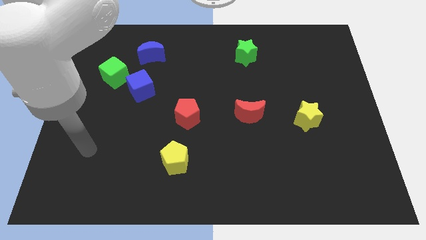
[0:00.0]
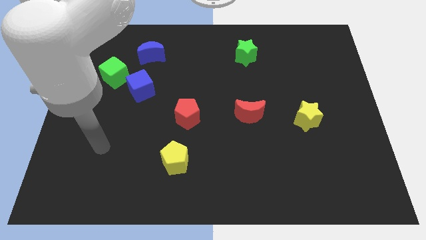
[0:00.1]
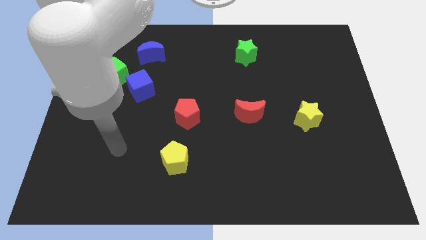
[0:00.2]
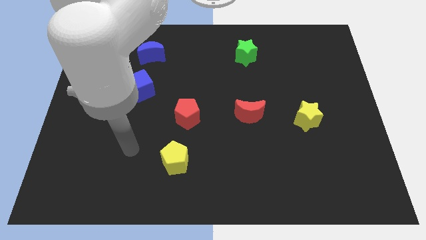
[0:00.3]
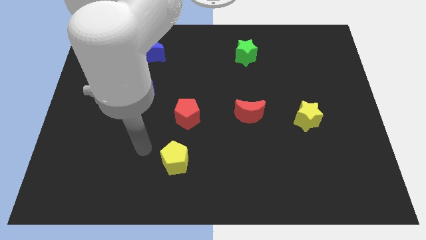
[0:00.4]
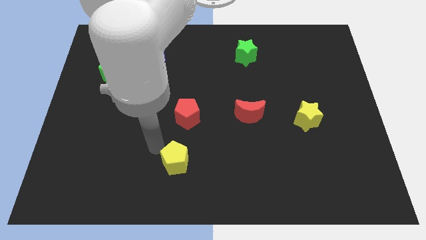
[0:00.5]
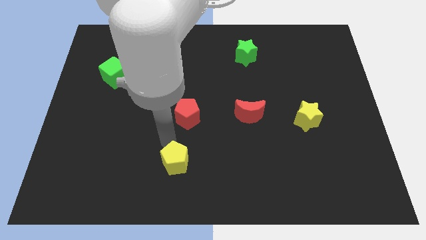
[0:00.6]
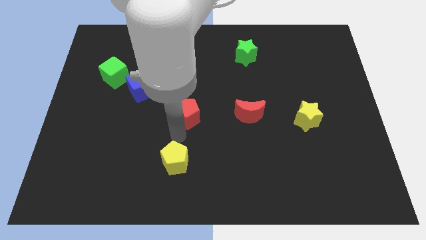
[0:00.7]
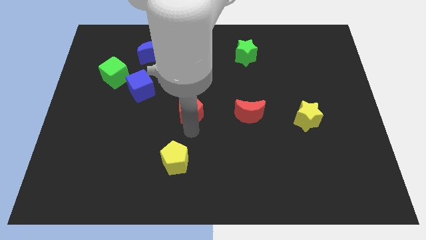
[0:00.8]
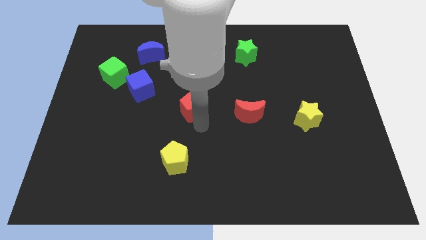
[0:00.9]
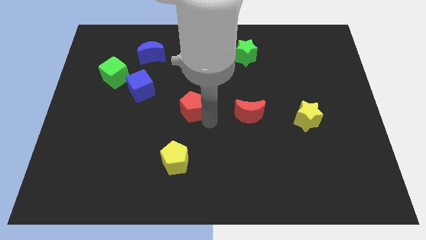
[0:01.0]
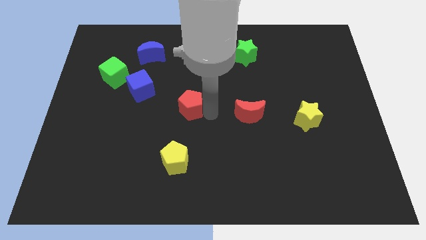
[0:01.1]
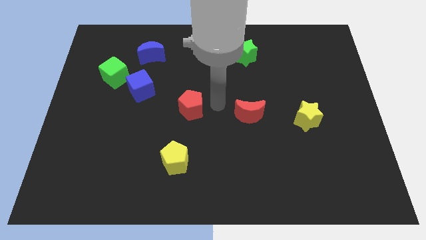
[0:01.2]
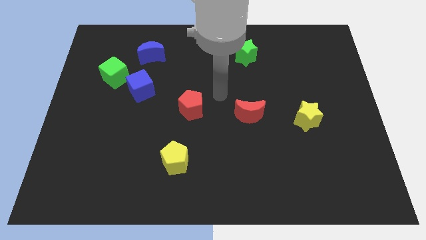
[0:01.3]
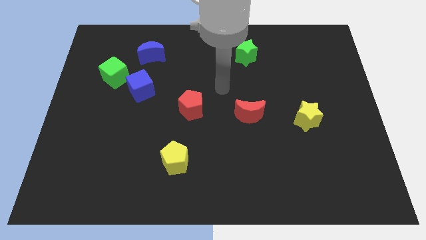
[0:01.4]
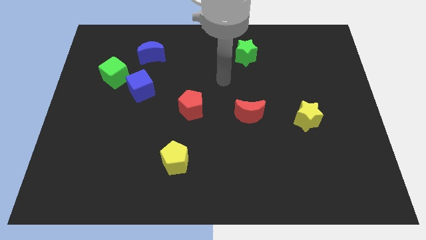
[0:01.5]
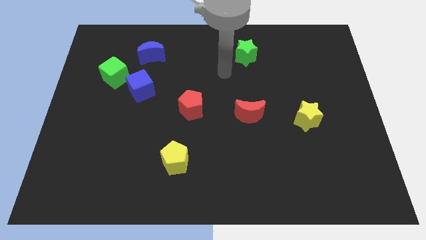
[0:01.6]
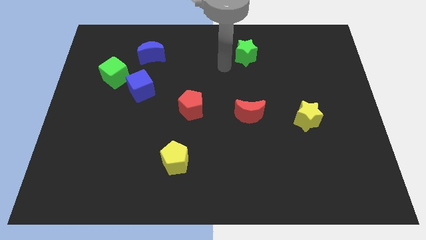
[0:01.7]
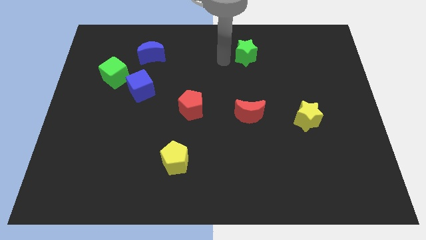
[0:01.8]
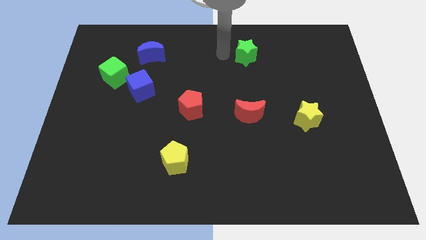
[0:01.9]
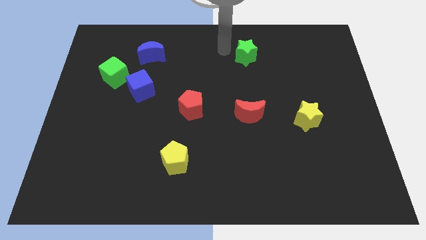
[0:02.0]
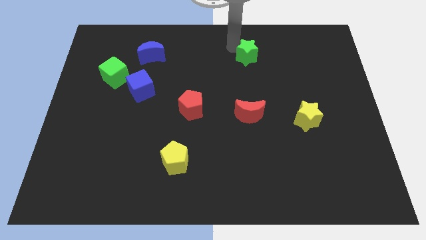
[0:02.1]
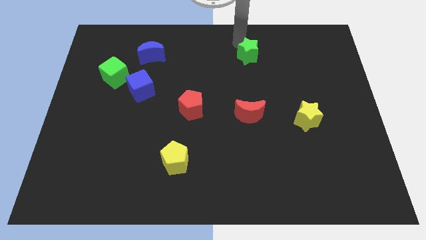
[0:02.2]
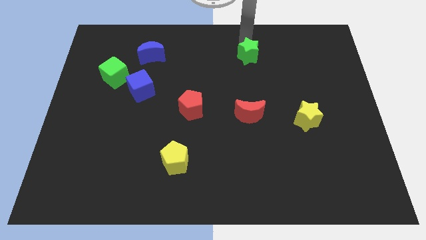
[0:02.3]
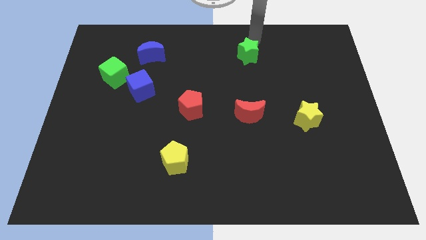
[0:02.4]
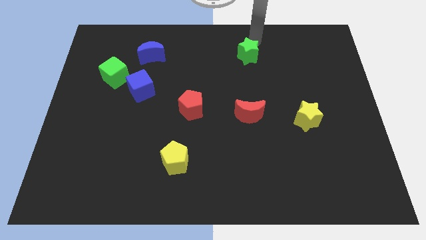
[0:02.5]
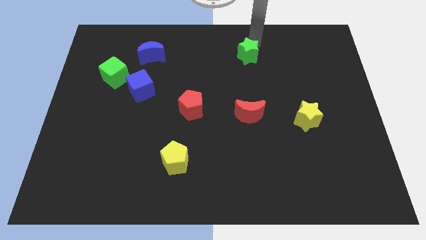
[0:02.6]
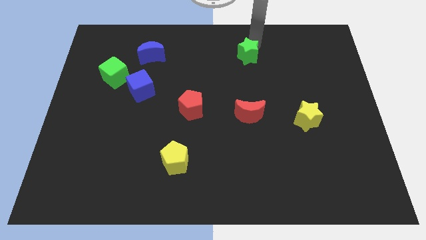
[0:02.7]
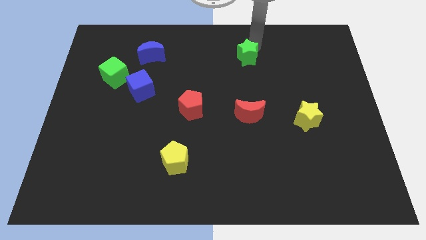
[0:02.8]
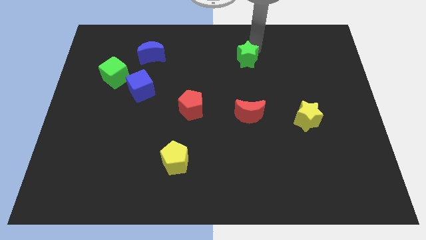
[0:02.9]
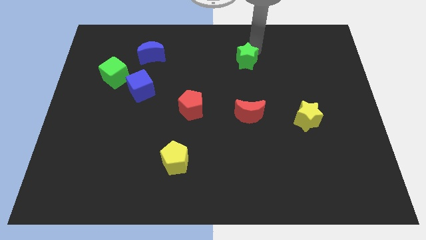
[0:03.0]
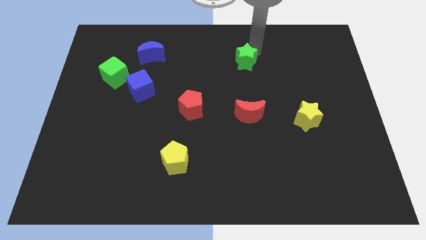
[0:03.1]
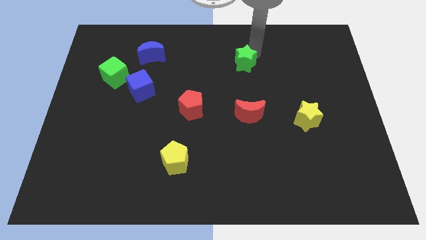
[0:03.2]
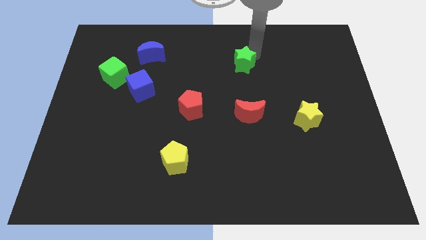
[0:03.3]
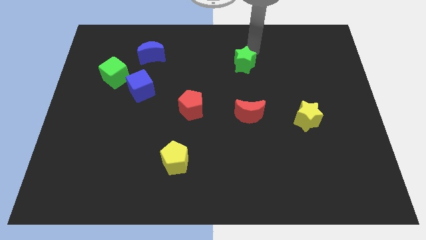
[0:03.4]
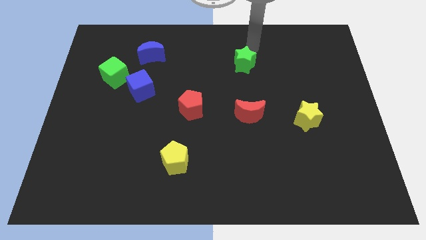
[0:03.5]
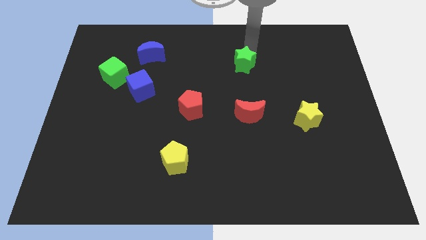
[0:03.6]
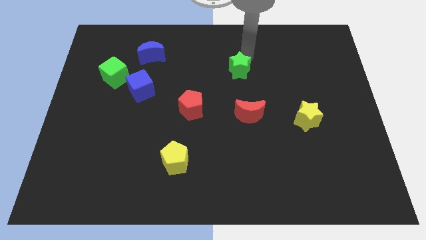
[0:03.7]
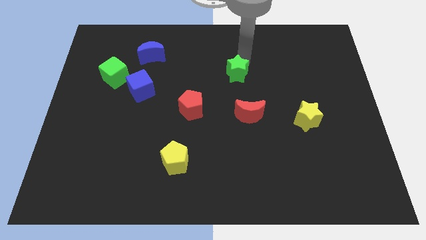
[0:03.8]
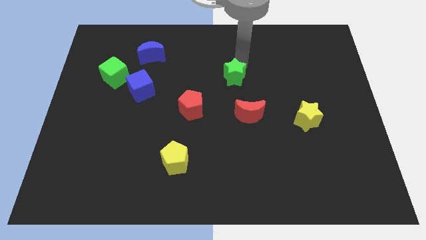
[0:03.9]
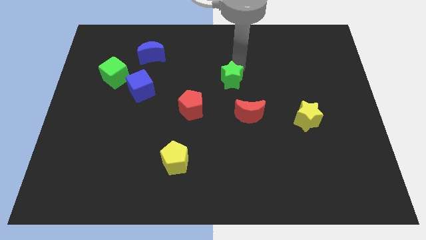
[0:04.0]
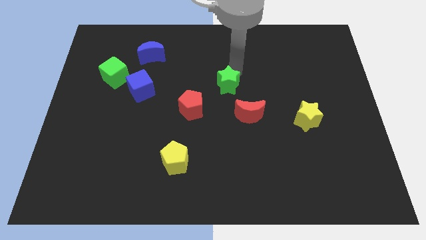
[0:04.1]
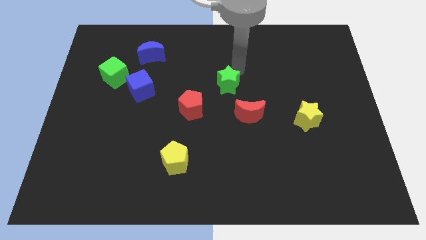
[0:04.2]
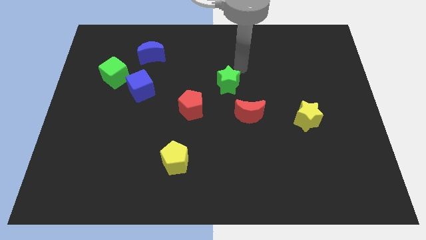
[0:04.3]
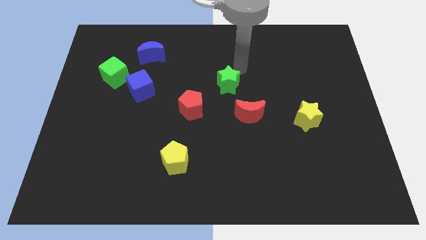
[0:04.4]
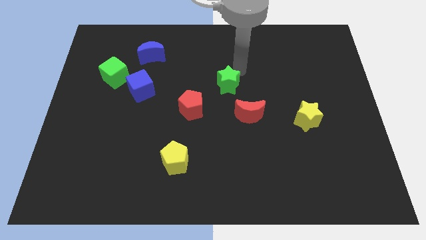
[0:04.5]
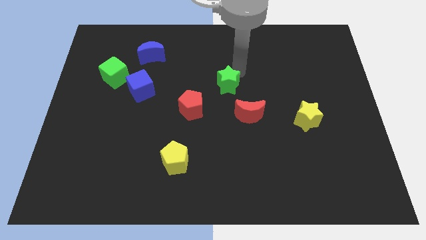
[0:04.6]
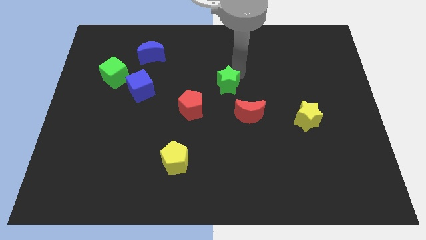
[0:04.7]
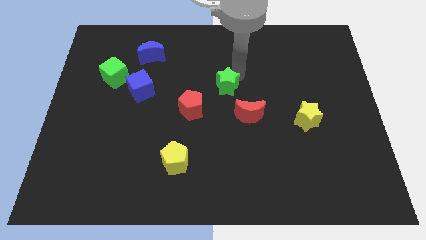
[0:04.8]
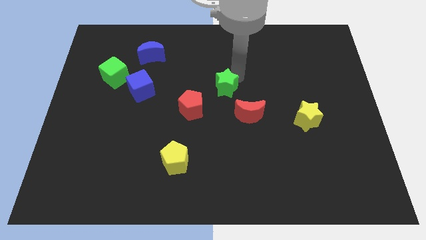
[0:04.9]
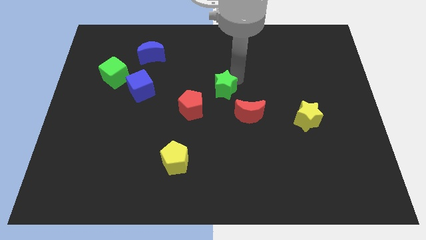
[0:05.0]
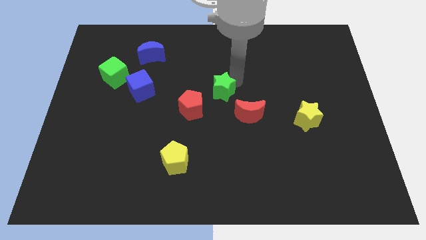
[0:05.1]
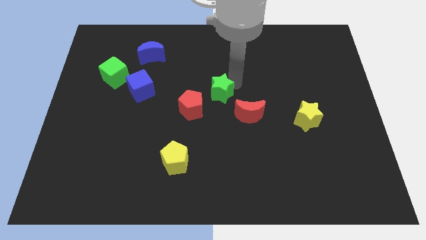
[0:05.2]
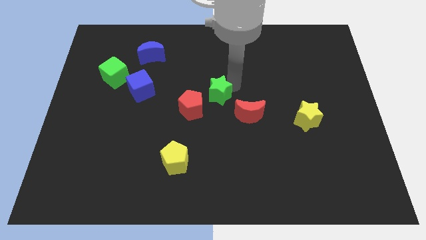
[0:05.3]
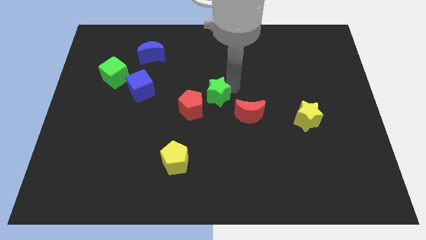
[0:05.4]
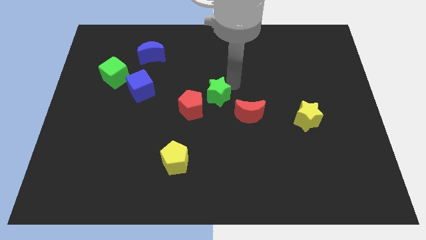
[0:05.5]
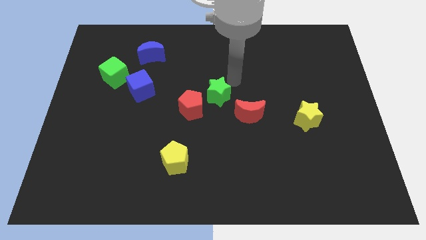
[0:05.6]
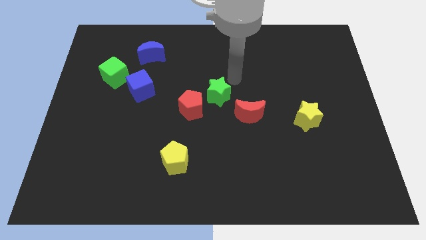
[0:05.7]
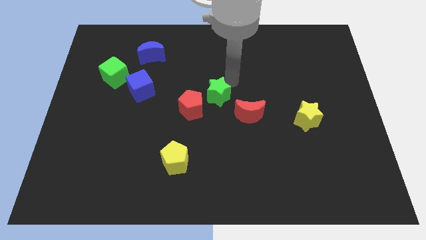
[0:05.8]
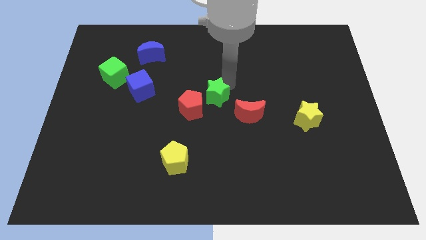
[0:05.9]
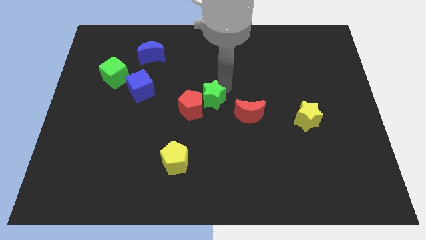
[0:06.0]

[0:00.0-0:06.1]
put the green star towards the red pentagon

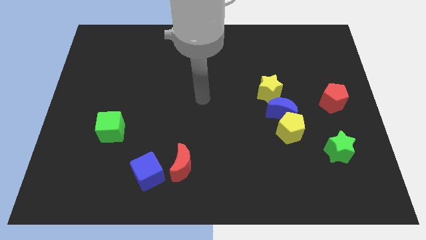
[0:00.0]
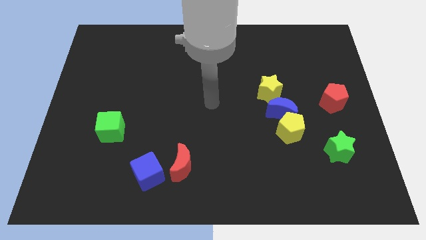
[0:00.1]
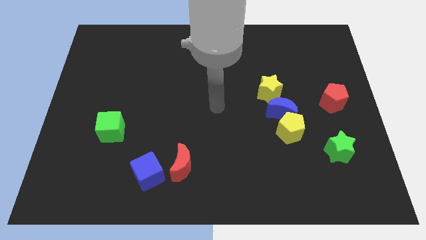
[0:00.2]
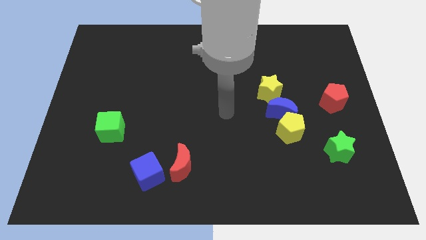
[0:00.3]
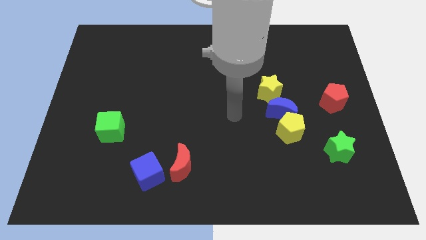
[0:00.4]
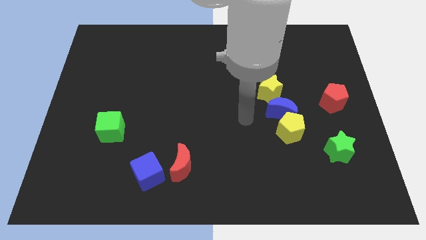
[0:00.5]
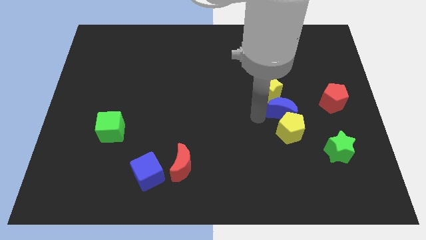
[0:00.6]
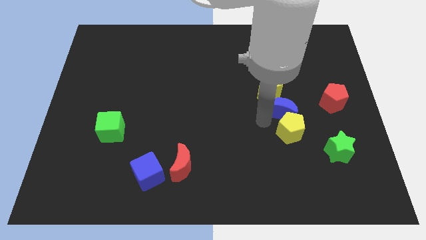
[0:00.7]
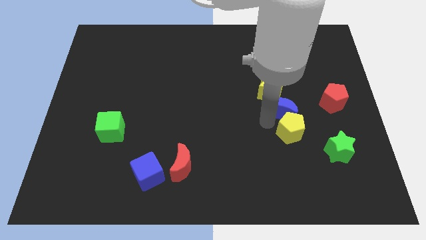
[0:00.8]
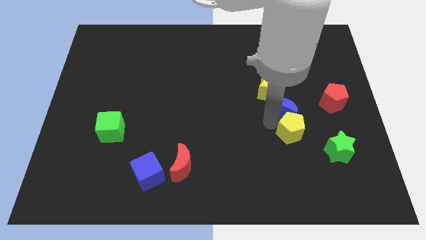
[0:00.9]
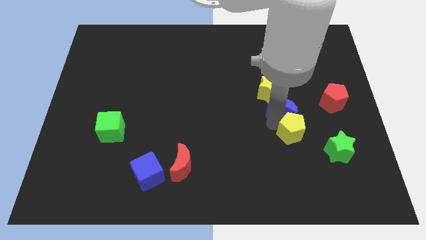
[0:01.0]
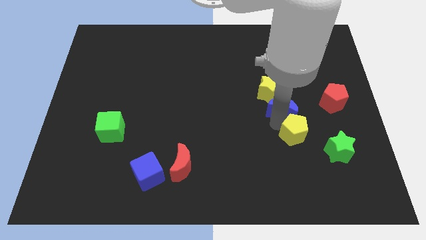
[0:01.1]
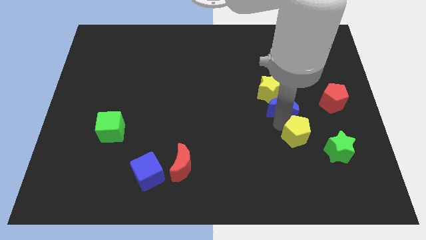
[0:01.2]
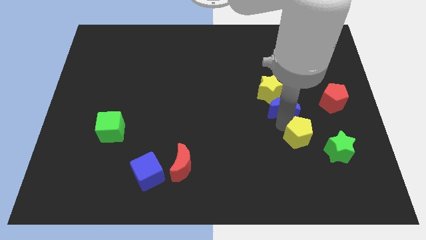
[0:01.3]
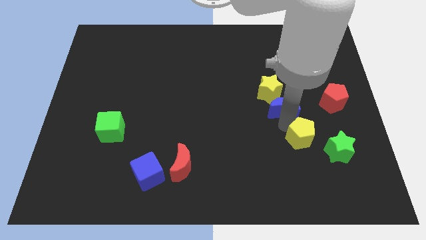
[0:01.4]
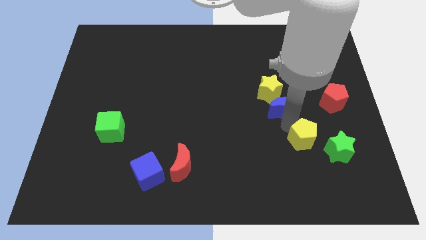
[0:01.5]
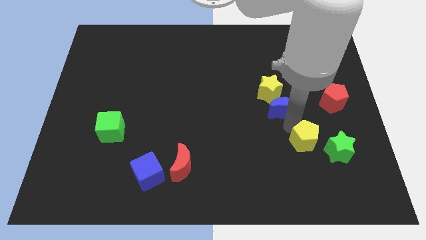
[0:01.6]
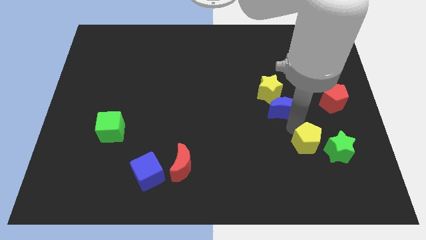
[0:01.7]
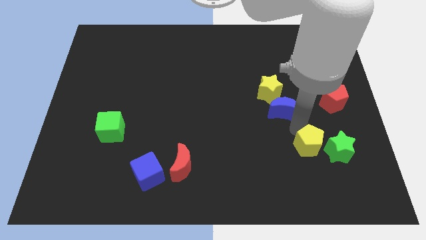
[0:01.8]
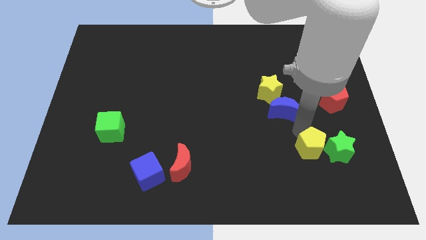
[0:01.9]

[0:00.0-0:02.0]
move the yellow pentagon next to the green star
